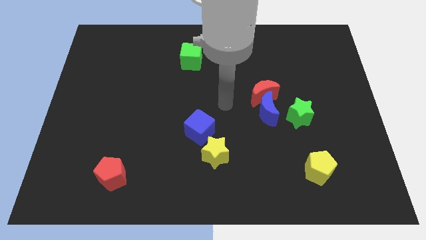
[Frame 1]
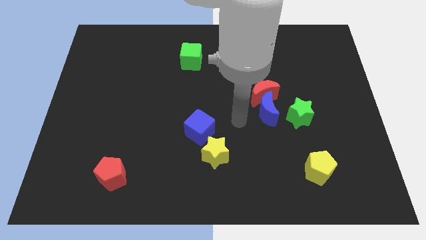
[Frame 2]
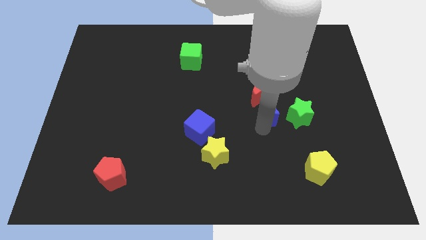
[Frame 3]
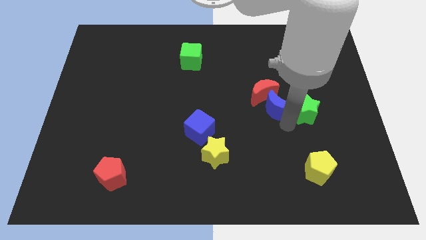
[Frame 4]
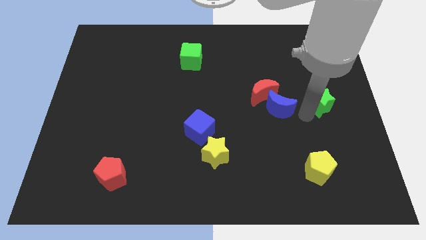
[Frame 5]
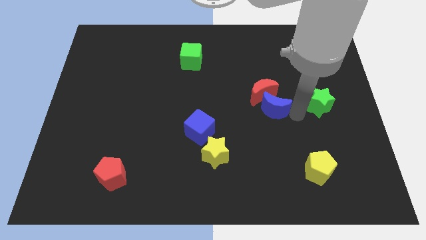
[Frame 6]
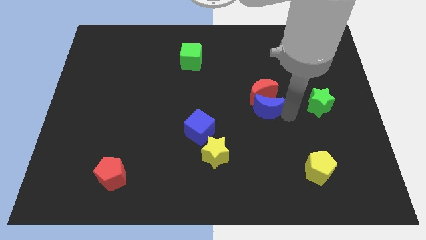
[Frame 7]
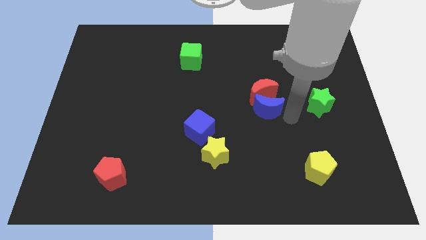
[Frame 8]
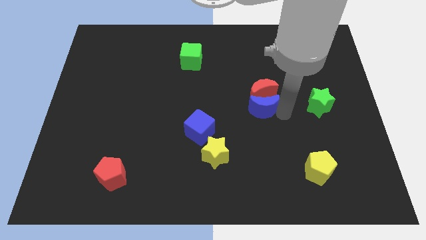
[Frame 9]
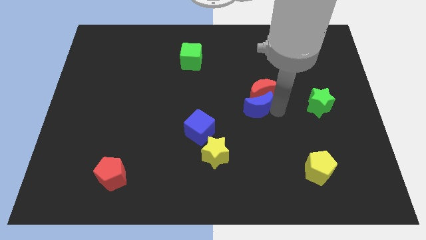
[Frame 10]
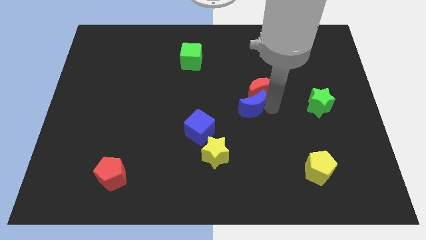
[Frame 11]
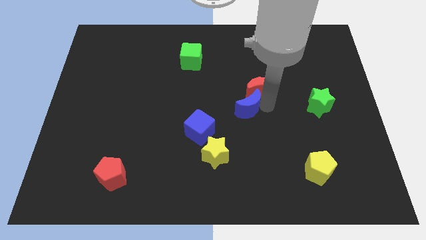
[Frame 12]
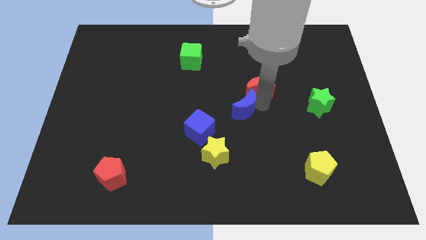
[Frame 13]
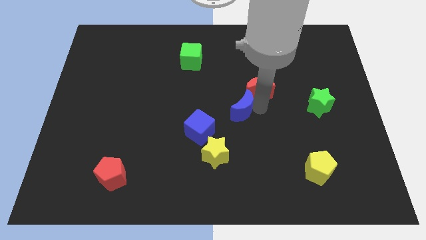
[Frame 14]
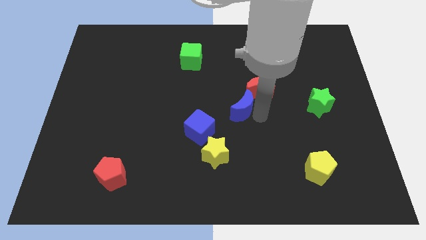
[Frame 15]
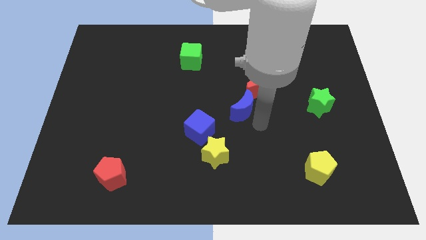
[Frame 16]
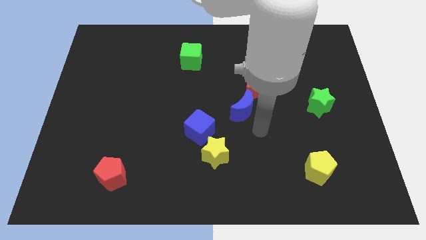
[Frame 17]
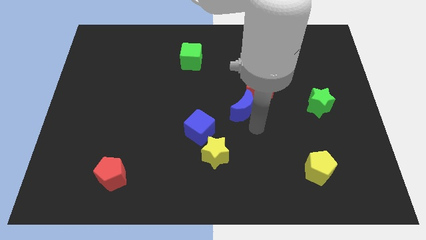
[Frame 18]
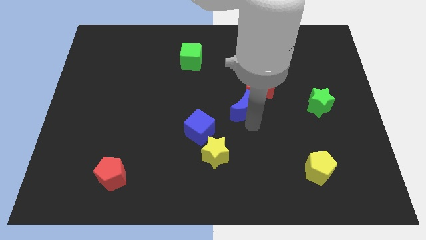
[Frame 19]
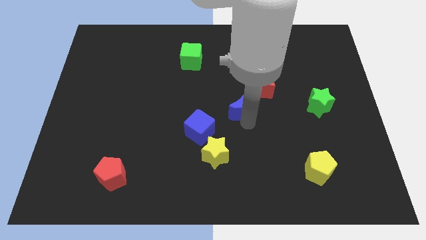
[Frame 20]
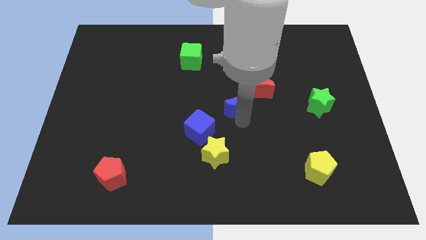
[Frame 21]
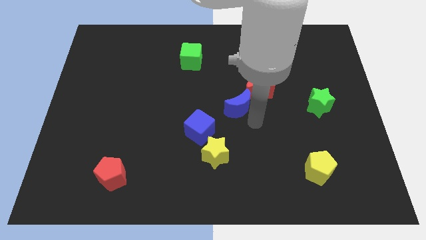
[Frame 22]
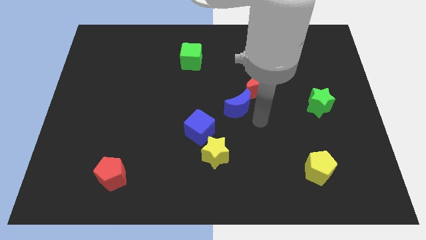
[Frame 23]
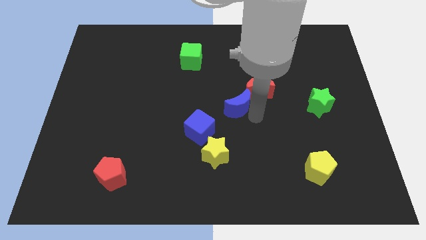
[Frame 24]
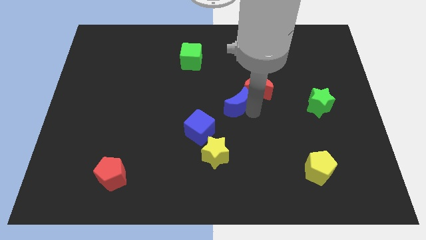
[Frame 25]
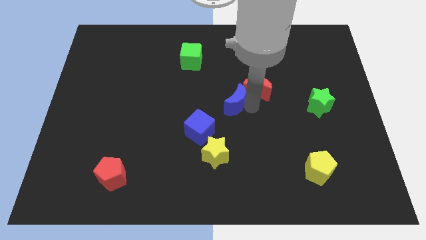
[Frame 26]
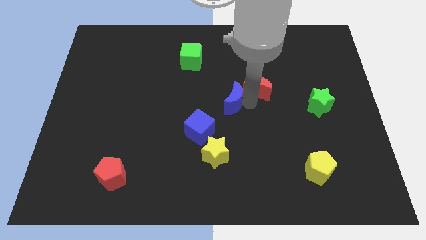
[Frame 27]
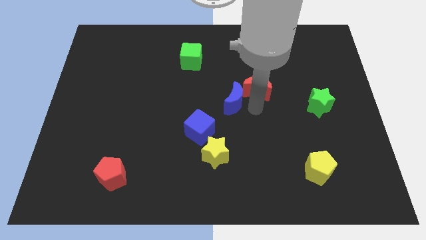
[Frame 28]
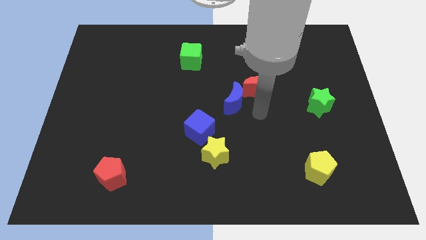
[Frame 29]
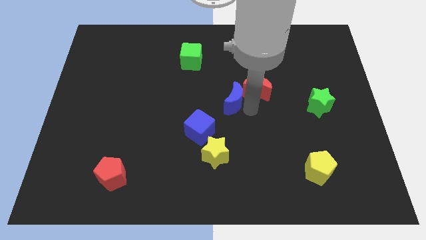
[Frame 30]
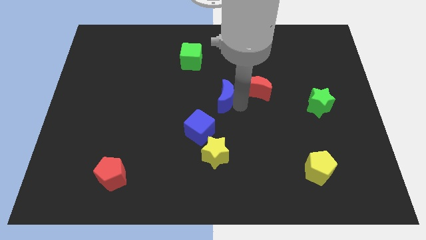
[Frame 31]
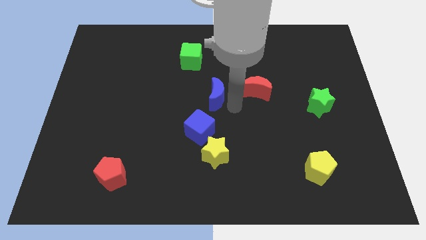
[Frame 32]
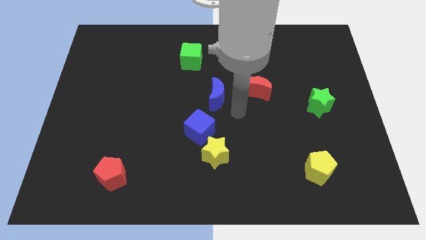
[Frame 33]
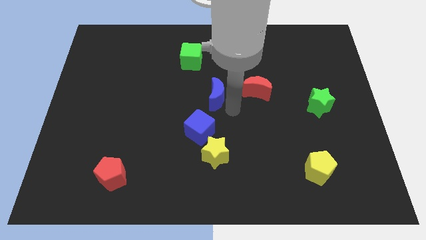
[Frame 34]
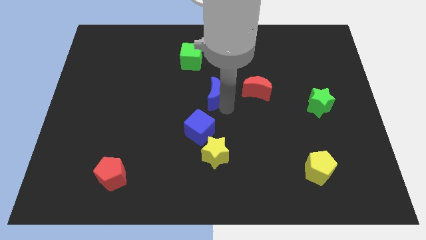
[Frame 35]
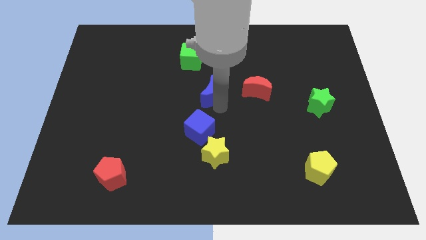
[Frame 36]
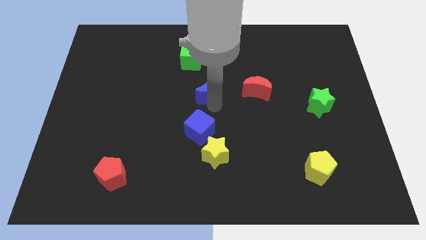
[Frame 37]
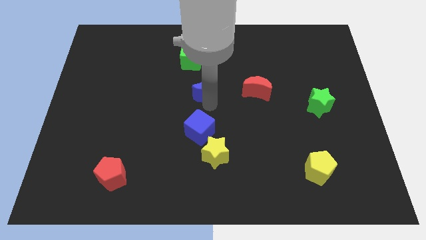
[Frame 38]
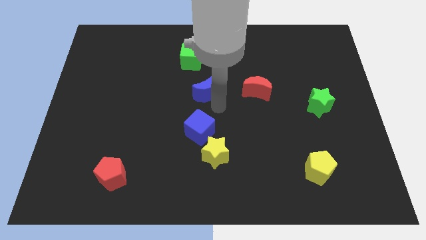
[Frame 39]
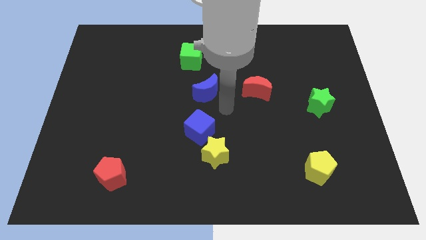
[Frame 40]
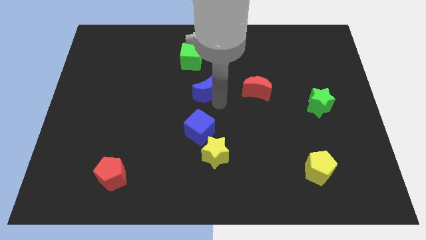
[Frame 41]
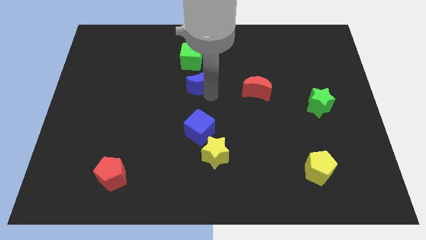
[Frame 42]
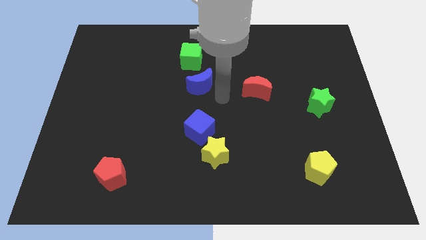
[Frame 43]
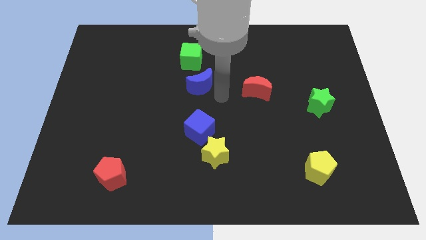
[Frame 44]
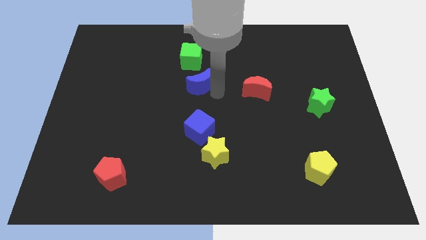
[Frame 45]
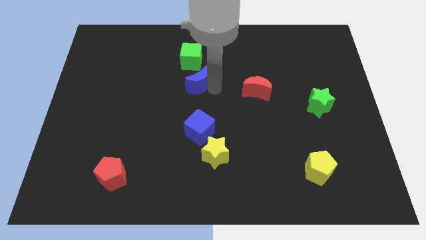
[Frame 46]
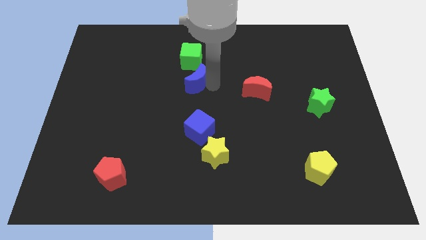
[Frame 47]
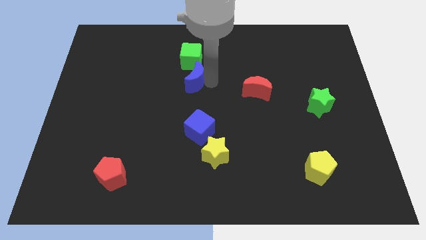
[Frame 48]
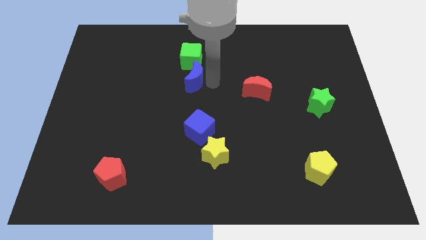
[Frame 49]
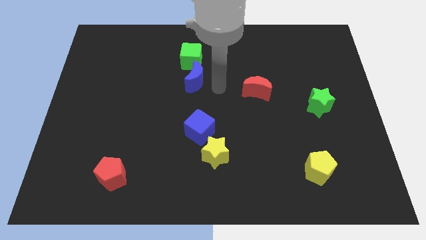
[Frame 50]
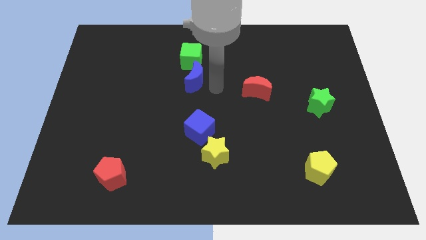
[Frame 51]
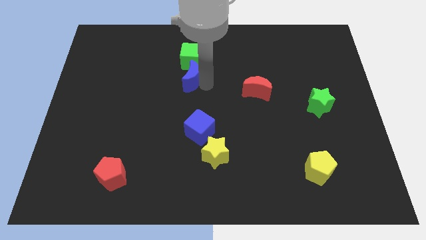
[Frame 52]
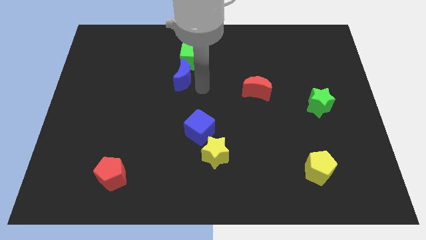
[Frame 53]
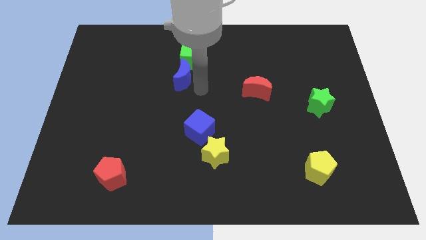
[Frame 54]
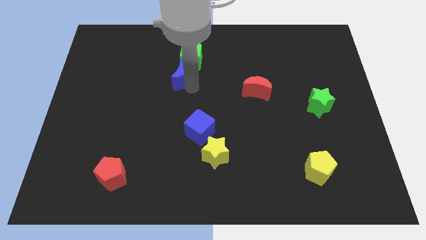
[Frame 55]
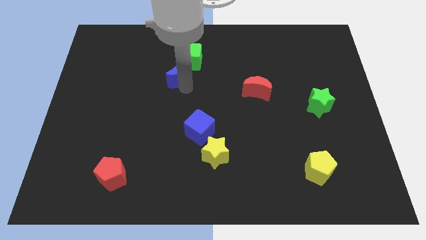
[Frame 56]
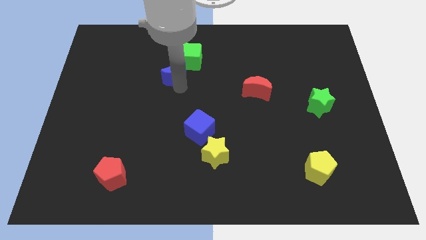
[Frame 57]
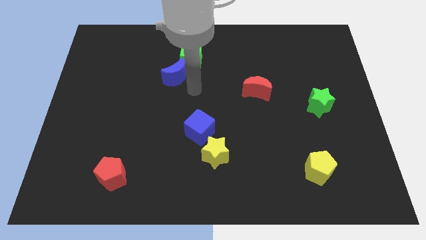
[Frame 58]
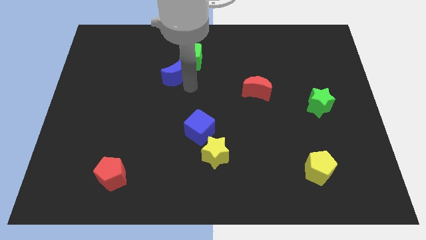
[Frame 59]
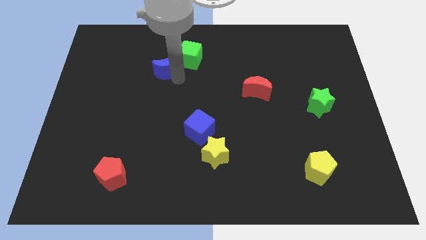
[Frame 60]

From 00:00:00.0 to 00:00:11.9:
put the blue moon just left of the green cube

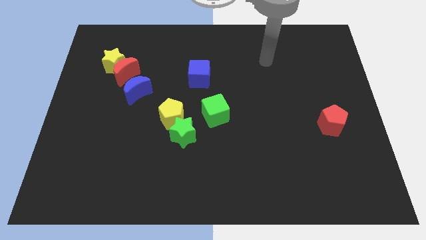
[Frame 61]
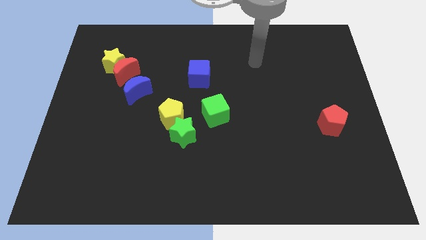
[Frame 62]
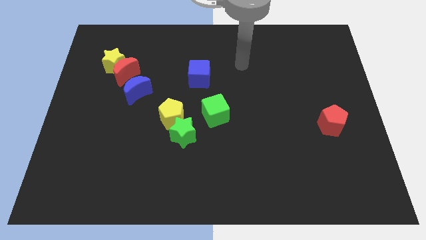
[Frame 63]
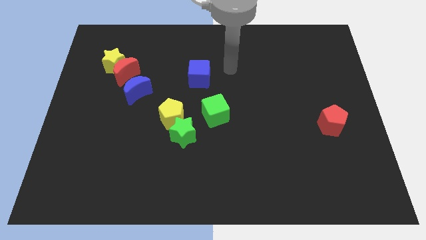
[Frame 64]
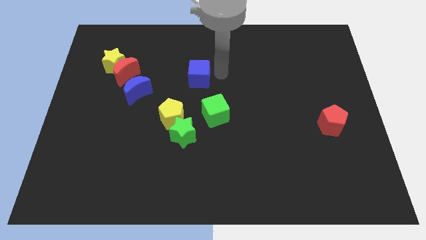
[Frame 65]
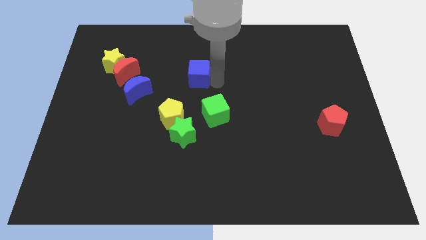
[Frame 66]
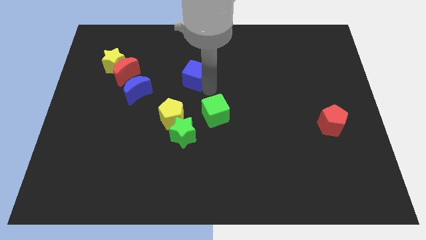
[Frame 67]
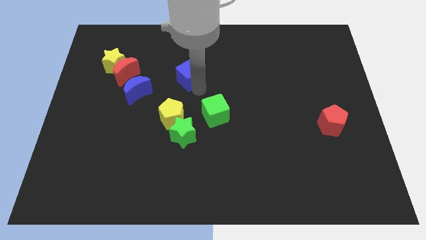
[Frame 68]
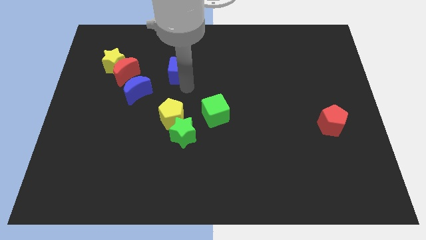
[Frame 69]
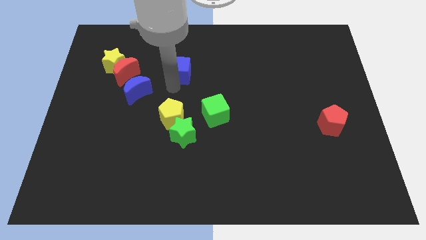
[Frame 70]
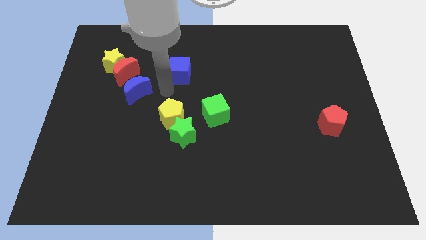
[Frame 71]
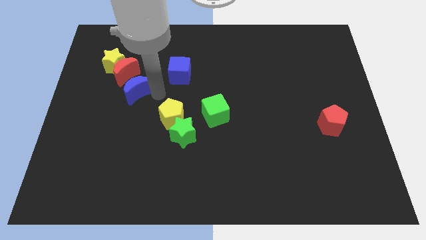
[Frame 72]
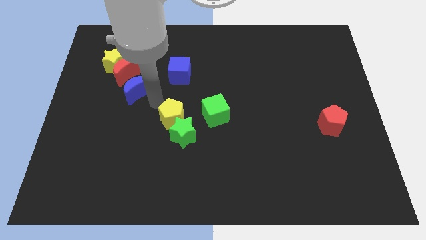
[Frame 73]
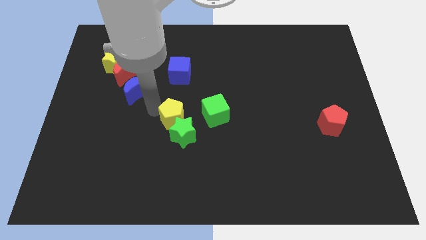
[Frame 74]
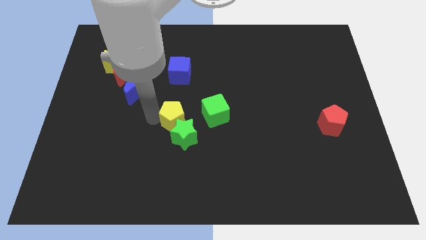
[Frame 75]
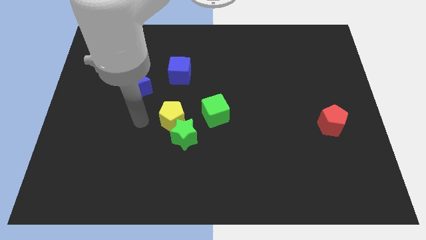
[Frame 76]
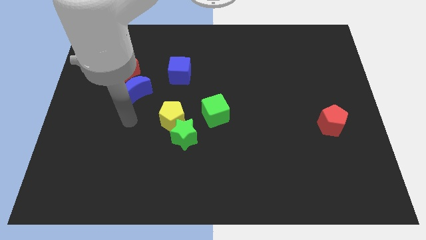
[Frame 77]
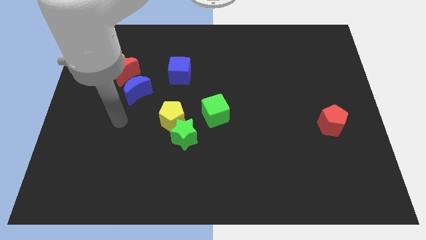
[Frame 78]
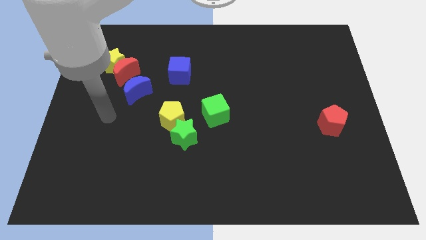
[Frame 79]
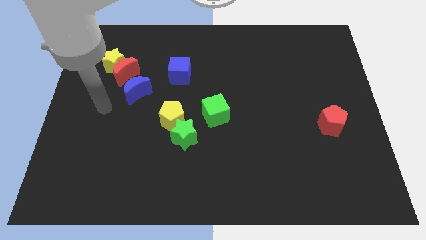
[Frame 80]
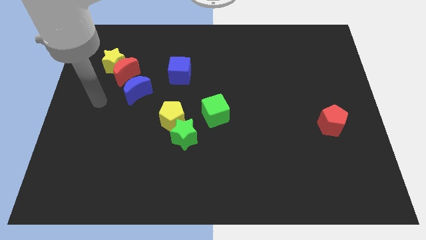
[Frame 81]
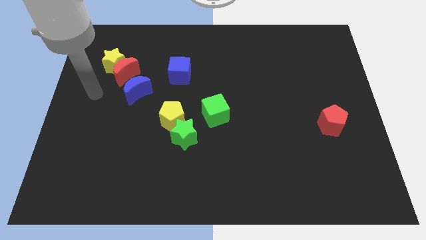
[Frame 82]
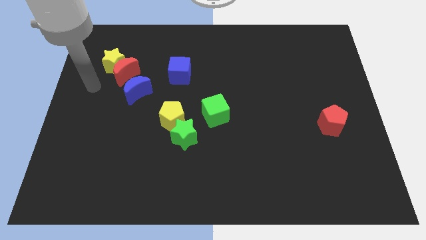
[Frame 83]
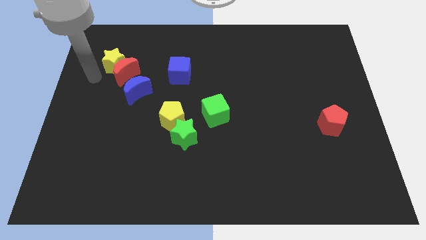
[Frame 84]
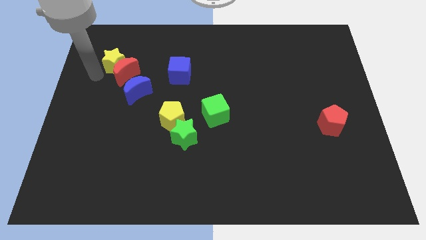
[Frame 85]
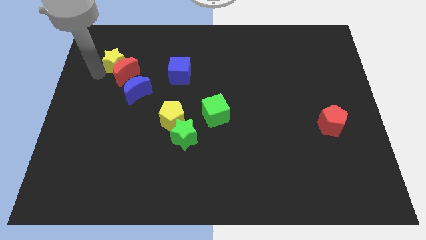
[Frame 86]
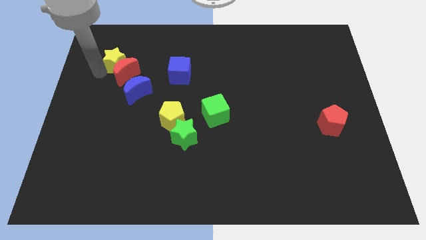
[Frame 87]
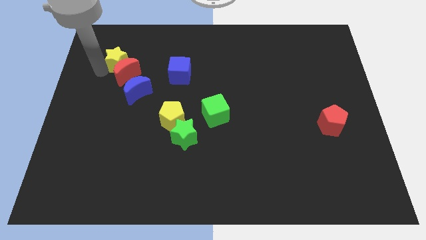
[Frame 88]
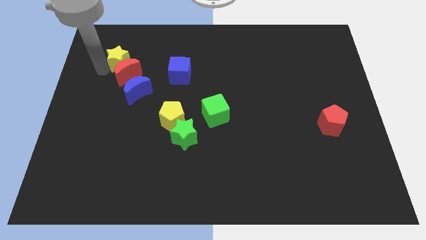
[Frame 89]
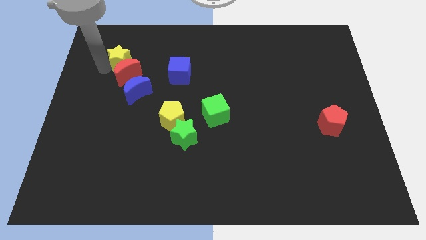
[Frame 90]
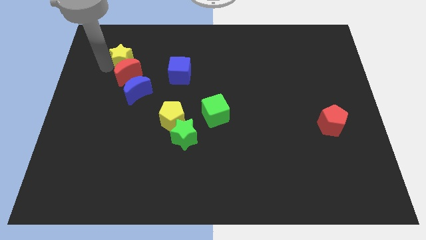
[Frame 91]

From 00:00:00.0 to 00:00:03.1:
move the yellow star diagonally up and to the right of the red moon
